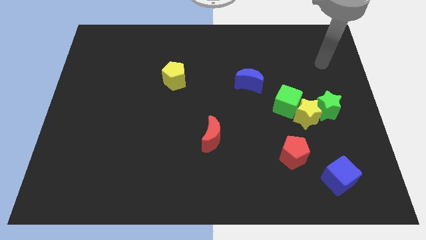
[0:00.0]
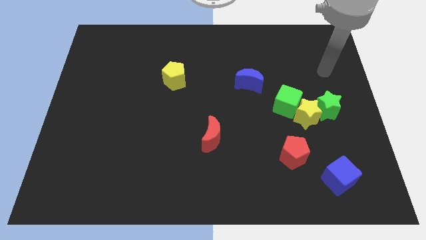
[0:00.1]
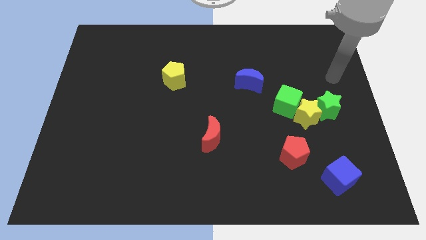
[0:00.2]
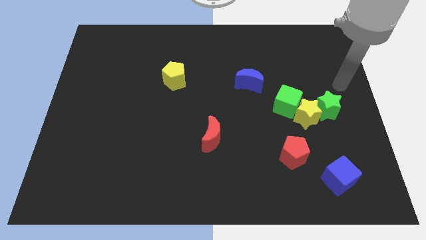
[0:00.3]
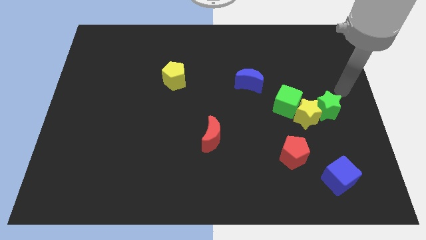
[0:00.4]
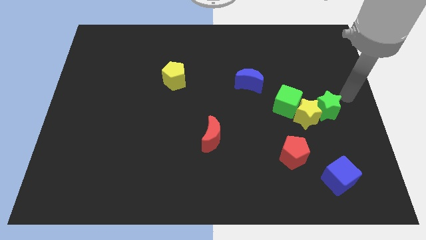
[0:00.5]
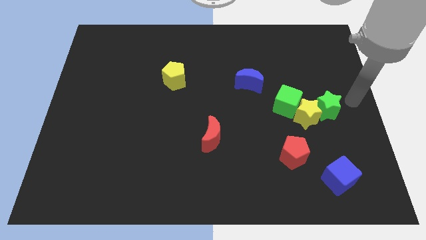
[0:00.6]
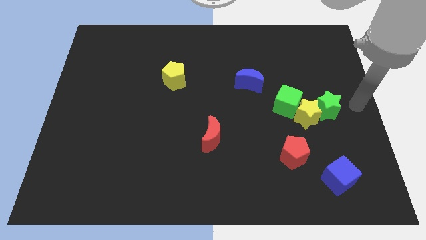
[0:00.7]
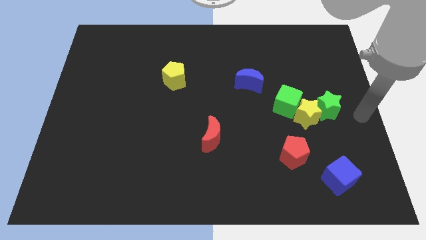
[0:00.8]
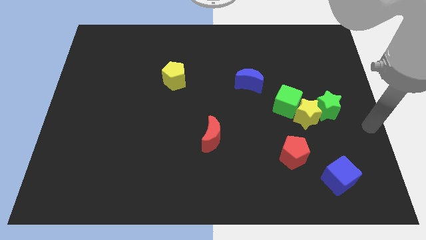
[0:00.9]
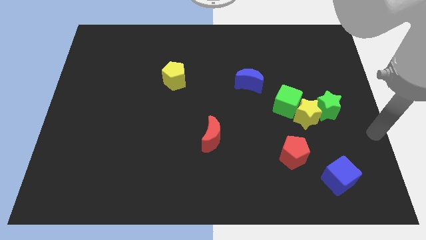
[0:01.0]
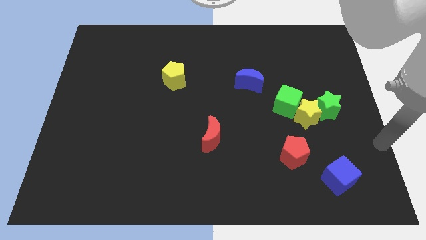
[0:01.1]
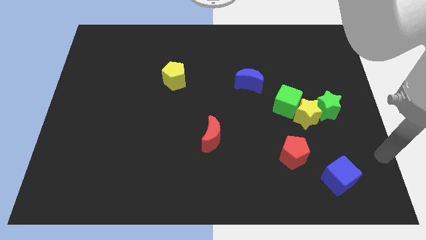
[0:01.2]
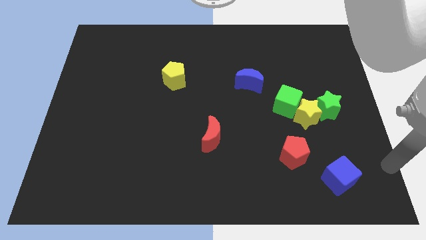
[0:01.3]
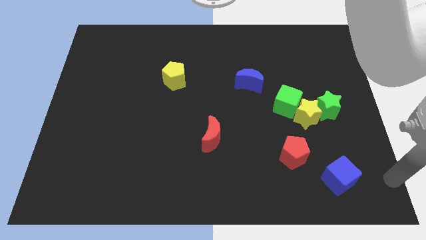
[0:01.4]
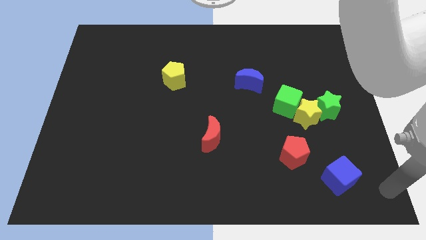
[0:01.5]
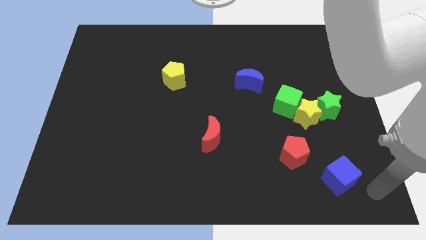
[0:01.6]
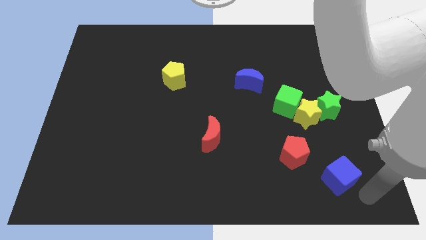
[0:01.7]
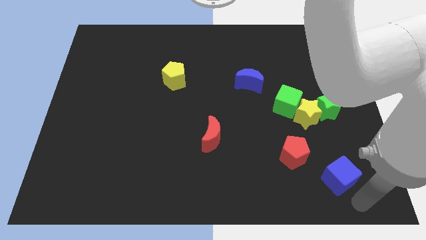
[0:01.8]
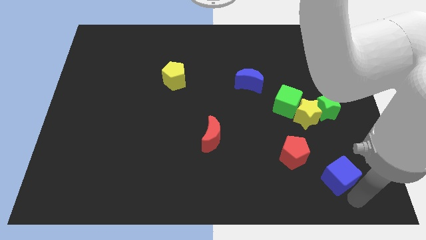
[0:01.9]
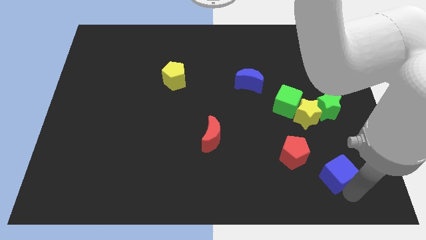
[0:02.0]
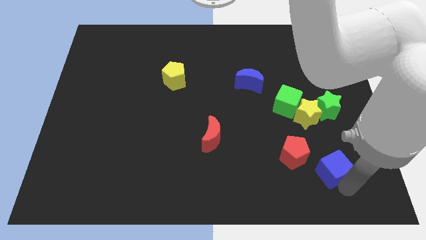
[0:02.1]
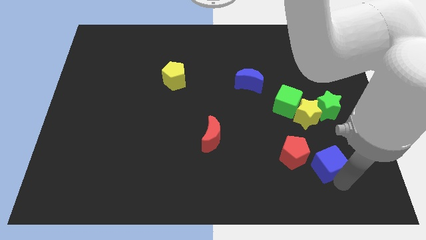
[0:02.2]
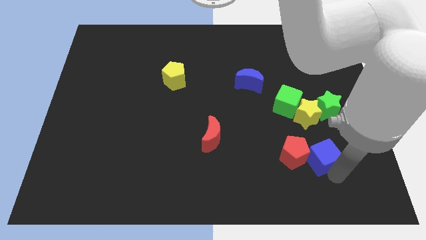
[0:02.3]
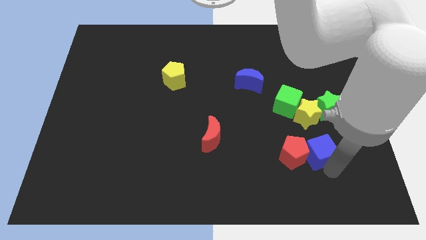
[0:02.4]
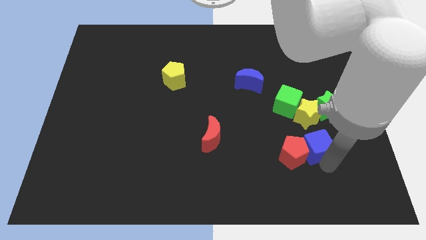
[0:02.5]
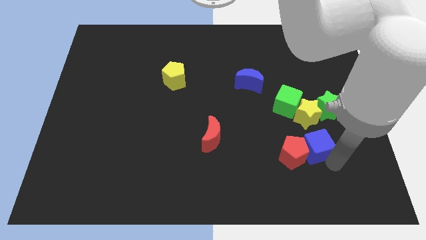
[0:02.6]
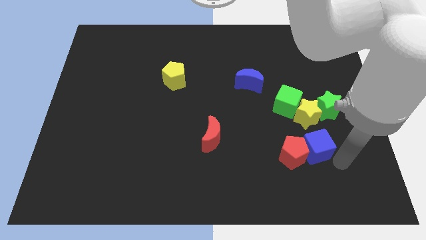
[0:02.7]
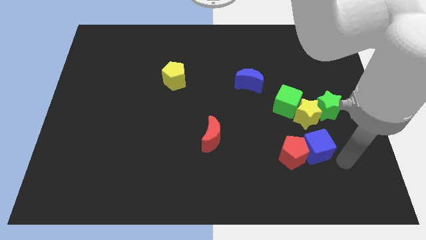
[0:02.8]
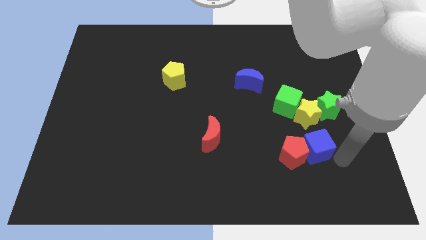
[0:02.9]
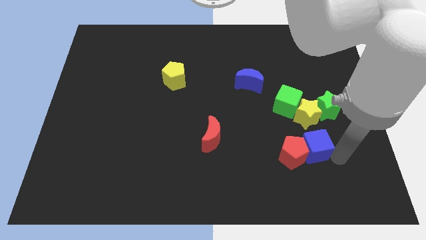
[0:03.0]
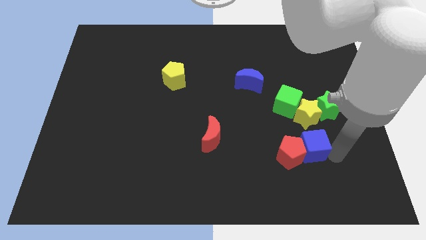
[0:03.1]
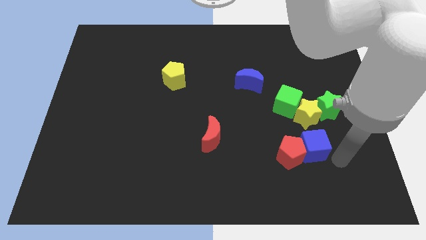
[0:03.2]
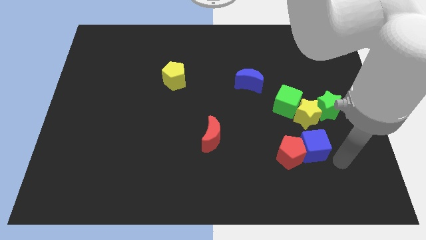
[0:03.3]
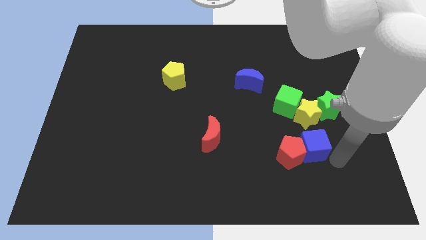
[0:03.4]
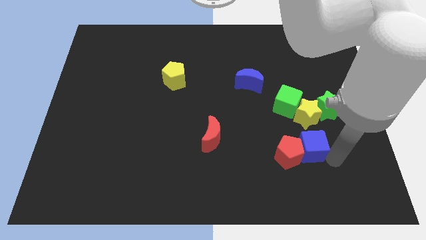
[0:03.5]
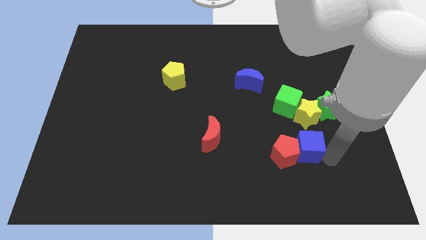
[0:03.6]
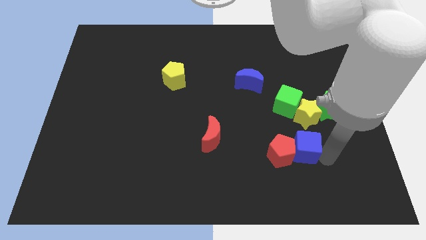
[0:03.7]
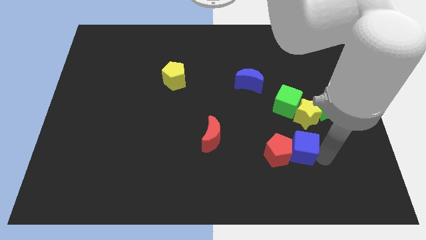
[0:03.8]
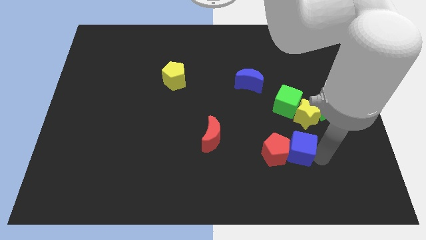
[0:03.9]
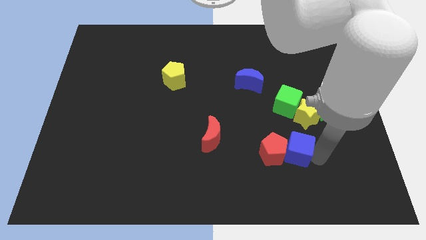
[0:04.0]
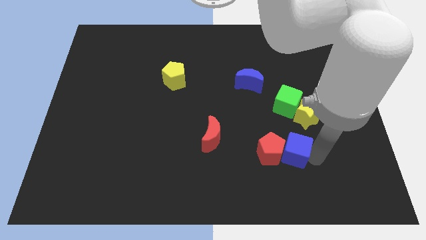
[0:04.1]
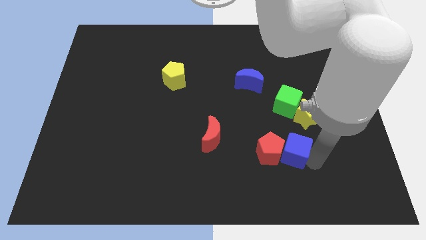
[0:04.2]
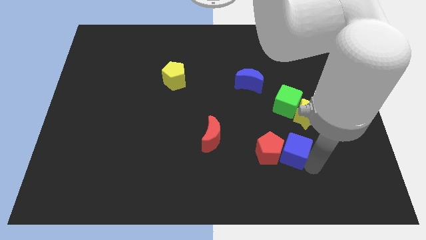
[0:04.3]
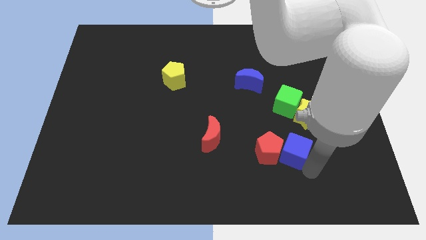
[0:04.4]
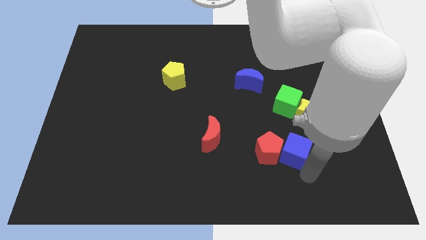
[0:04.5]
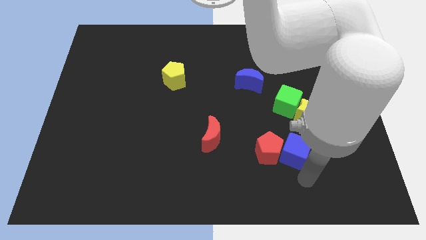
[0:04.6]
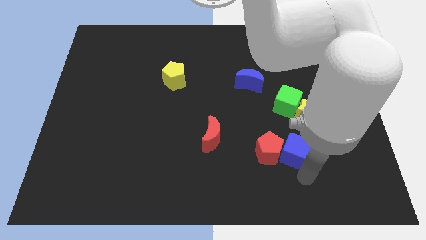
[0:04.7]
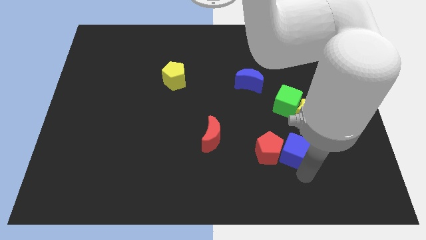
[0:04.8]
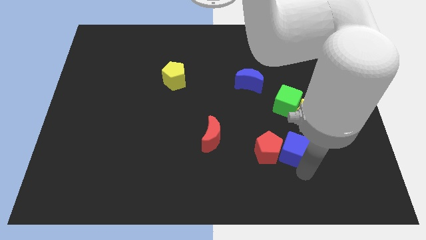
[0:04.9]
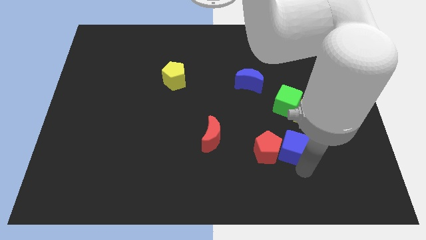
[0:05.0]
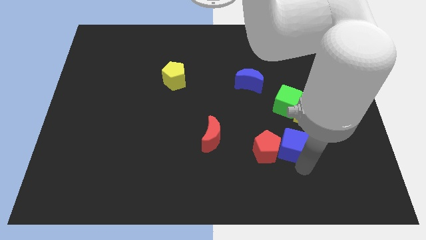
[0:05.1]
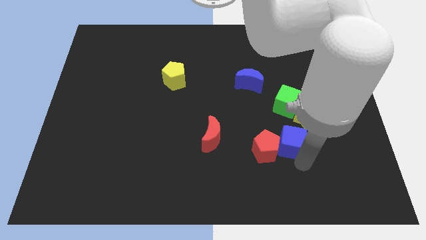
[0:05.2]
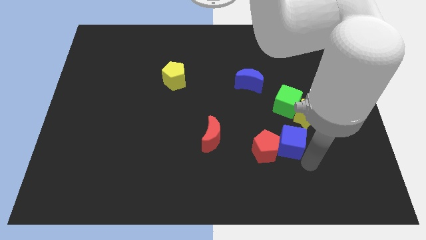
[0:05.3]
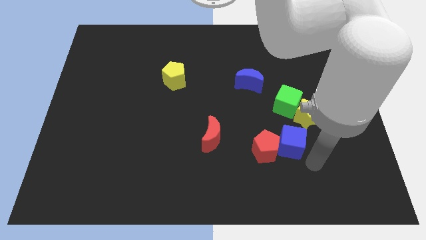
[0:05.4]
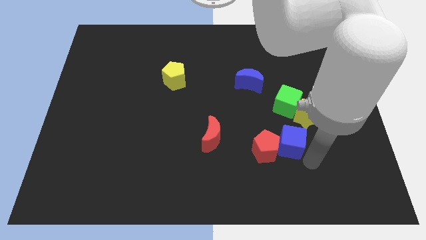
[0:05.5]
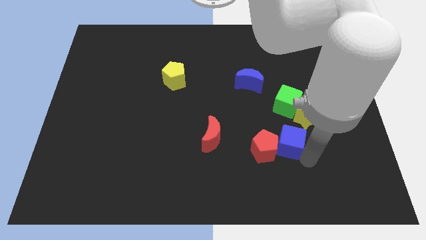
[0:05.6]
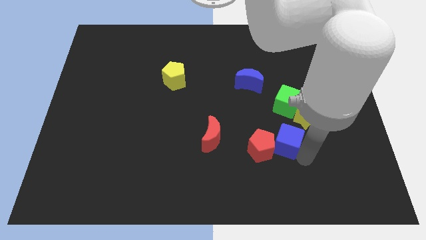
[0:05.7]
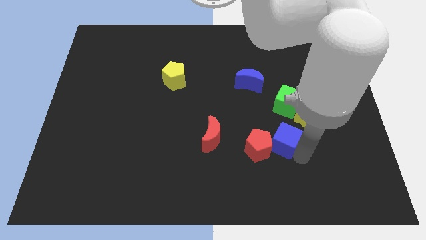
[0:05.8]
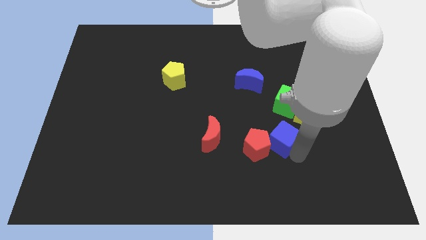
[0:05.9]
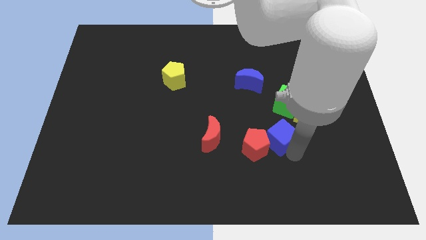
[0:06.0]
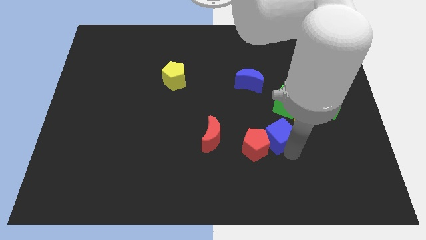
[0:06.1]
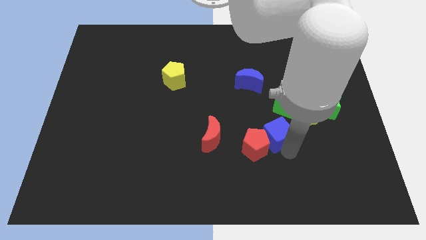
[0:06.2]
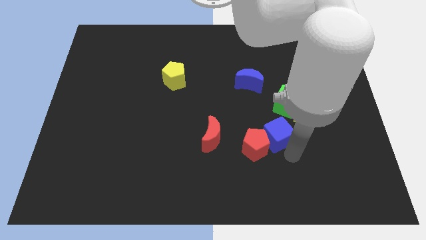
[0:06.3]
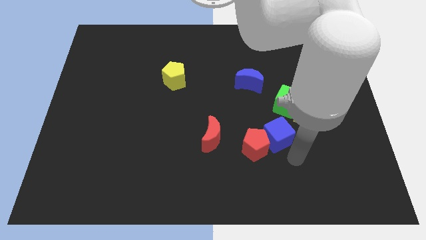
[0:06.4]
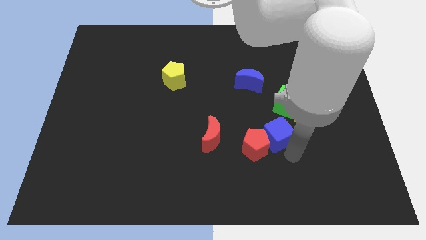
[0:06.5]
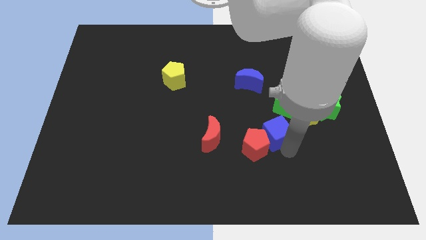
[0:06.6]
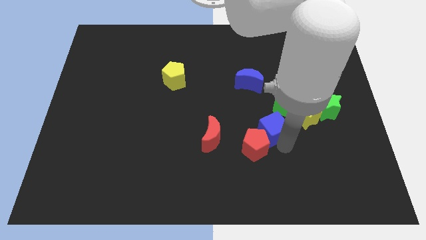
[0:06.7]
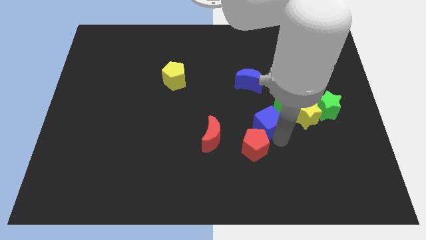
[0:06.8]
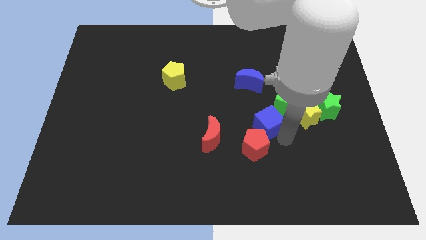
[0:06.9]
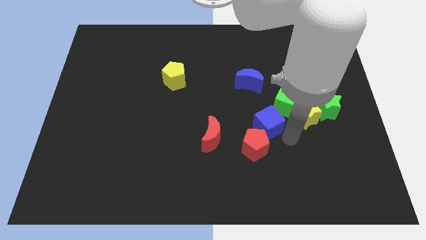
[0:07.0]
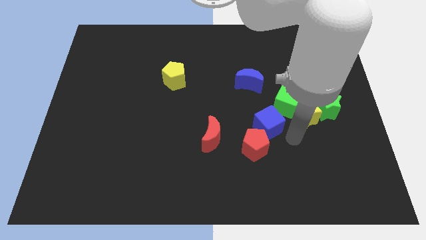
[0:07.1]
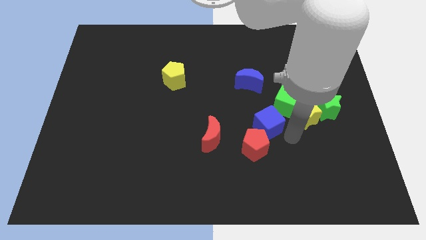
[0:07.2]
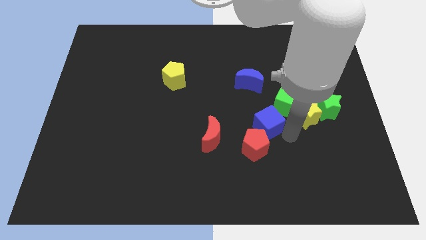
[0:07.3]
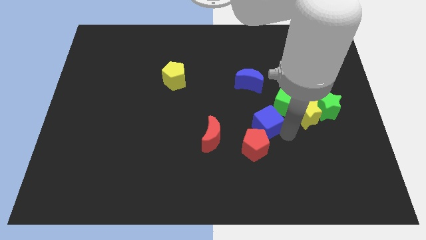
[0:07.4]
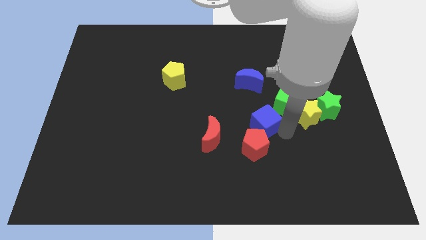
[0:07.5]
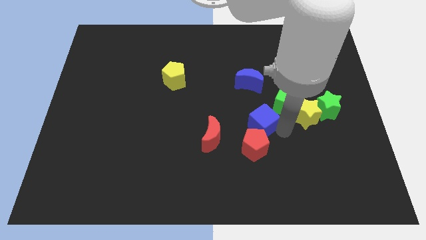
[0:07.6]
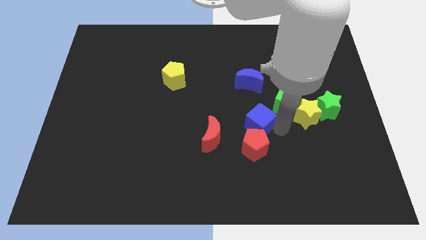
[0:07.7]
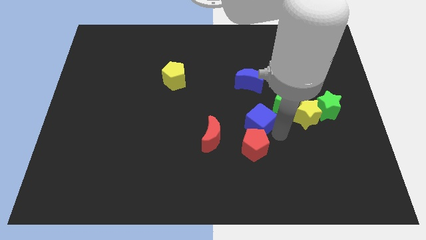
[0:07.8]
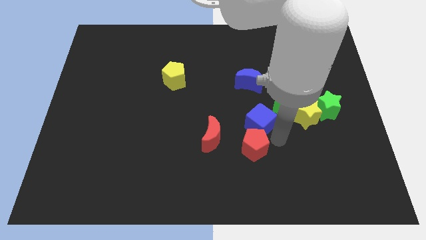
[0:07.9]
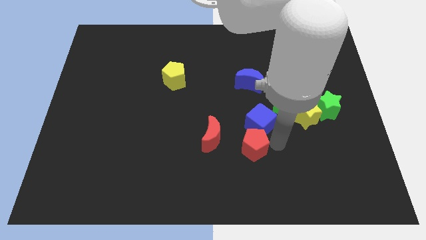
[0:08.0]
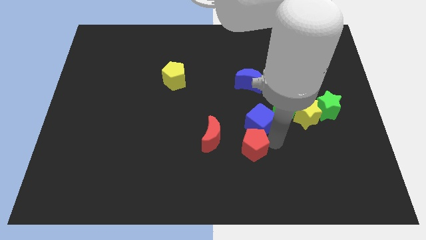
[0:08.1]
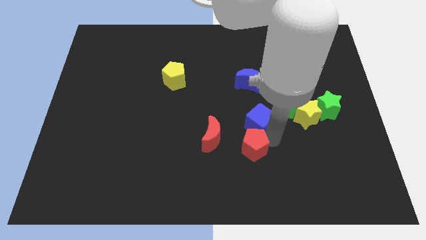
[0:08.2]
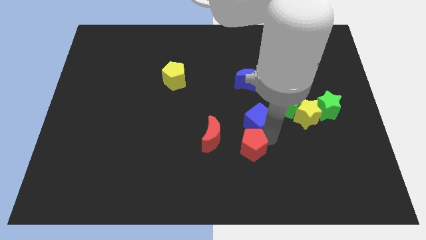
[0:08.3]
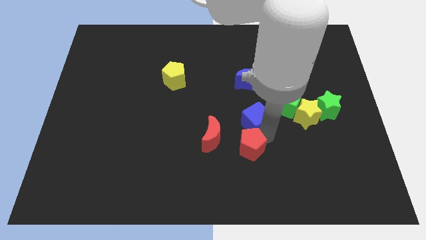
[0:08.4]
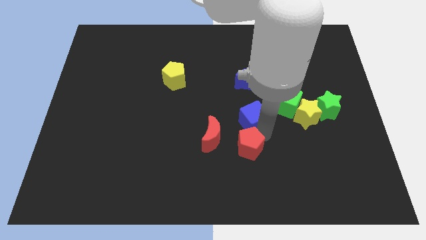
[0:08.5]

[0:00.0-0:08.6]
put the blue cube to the left of the green cube
